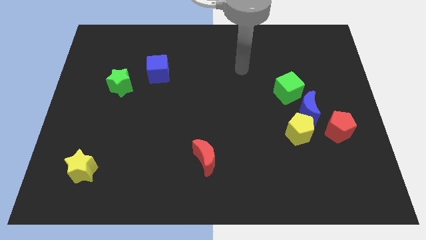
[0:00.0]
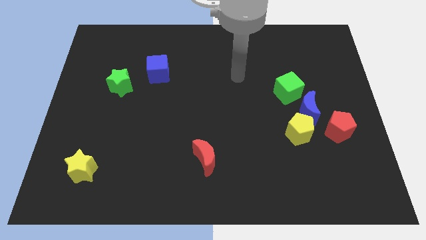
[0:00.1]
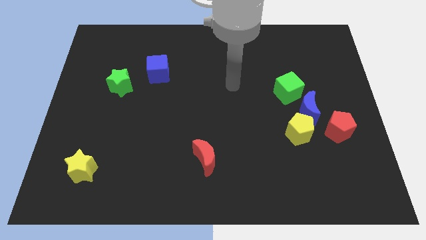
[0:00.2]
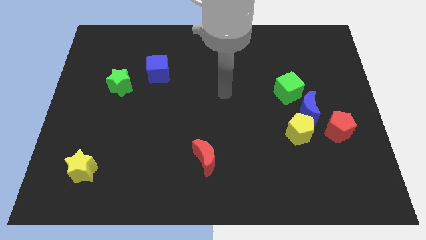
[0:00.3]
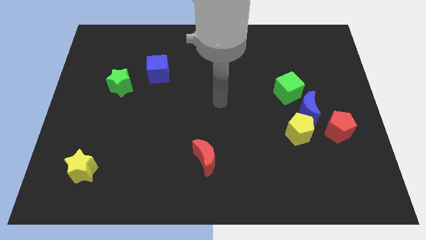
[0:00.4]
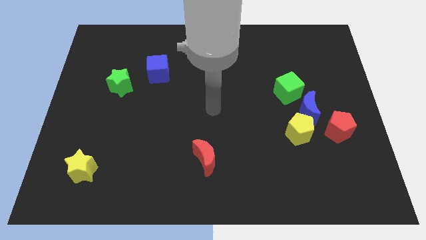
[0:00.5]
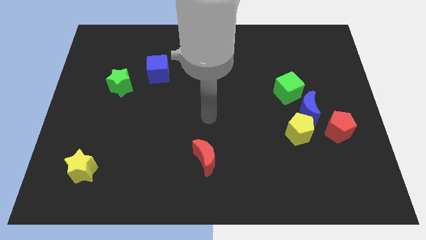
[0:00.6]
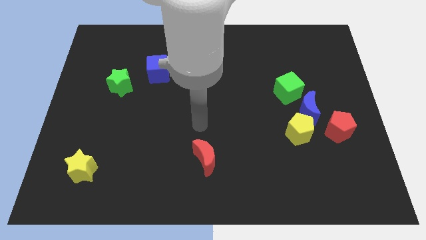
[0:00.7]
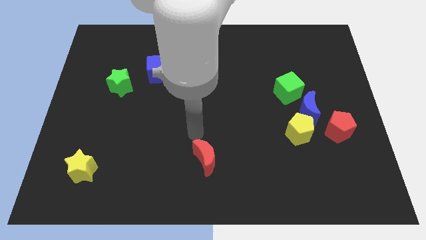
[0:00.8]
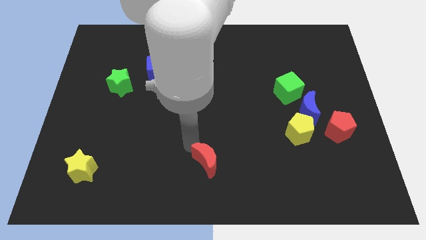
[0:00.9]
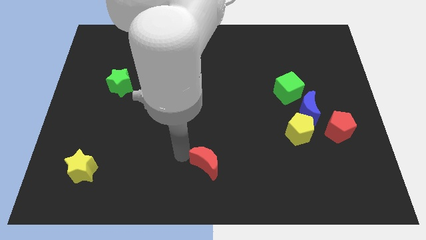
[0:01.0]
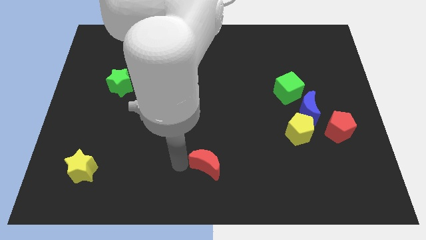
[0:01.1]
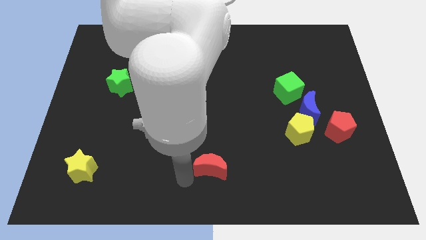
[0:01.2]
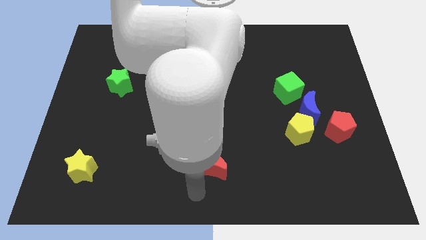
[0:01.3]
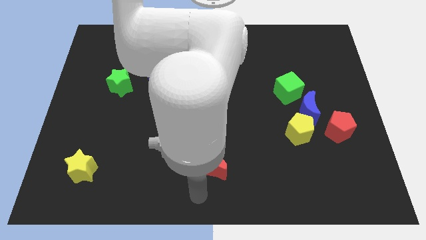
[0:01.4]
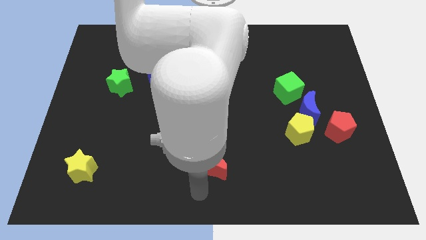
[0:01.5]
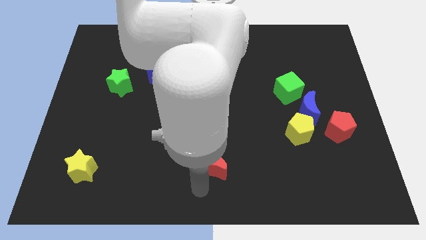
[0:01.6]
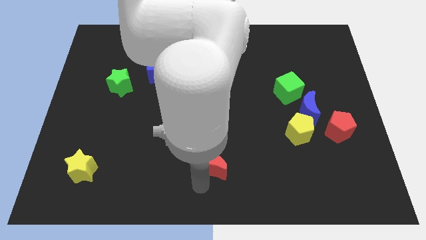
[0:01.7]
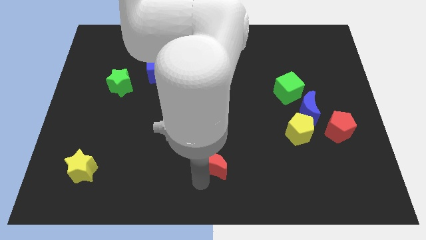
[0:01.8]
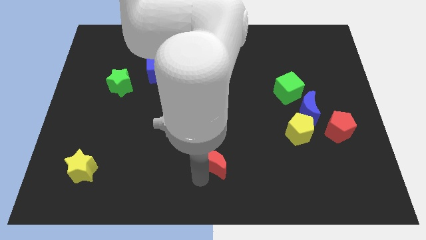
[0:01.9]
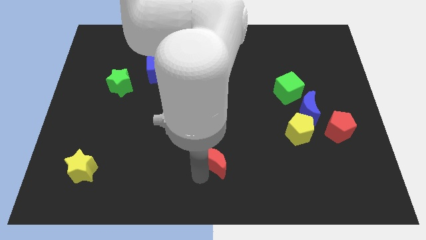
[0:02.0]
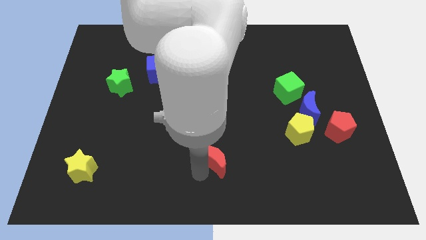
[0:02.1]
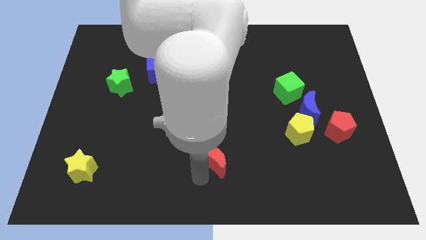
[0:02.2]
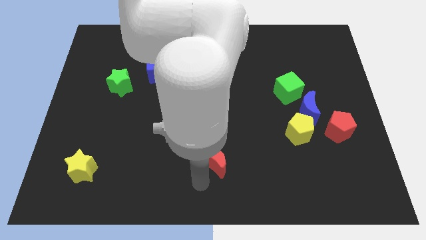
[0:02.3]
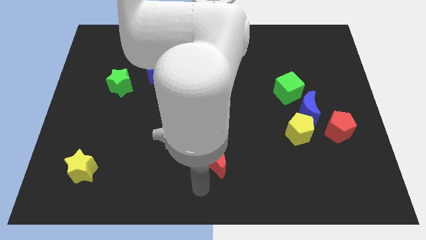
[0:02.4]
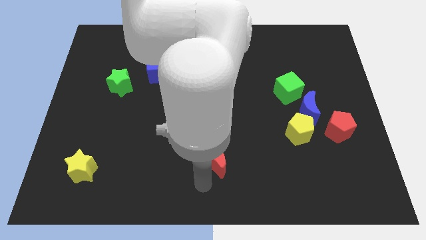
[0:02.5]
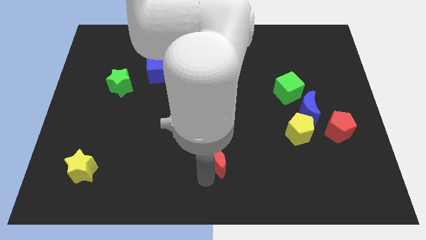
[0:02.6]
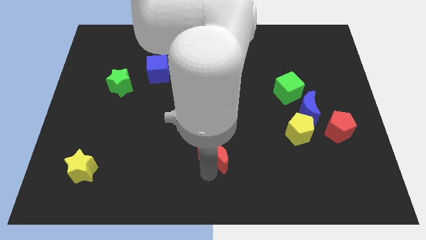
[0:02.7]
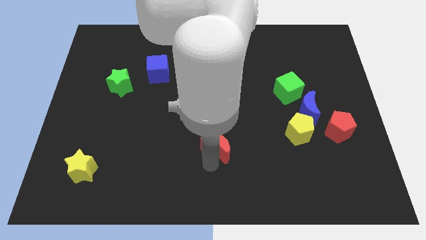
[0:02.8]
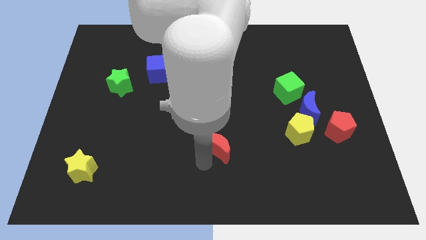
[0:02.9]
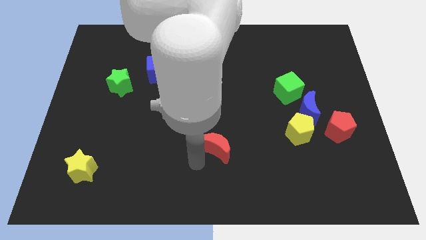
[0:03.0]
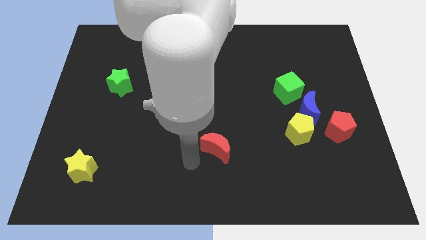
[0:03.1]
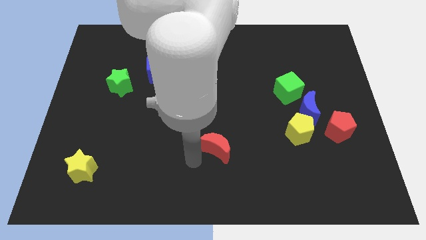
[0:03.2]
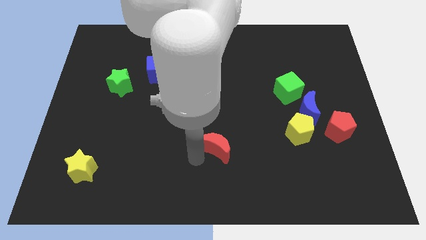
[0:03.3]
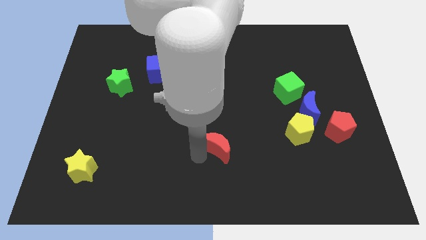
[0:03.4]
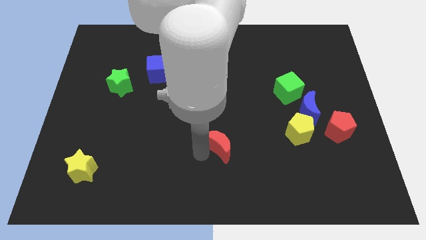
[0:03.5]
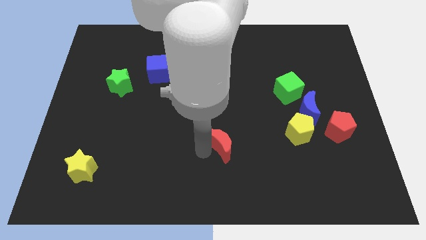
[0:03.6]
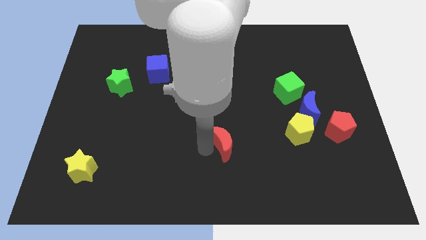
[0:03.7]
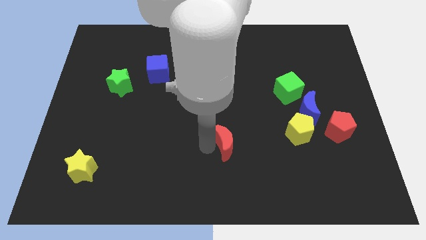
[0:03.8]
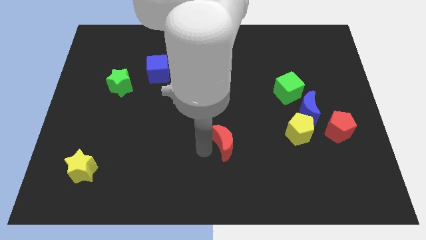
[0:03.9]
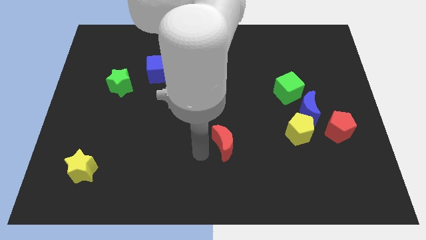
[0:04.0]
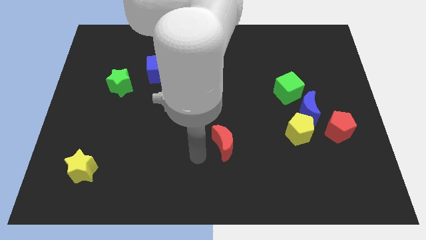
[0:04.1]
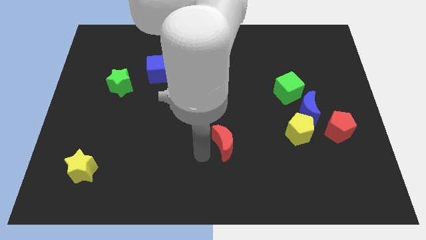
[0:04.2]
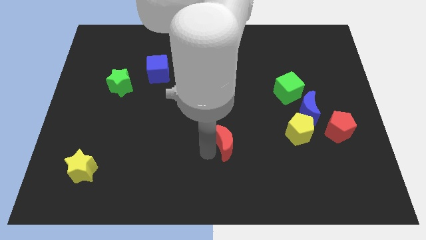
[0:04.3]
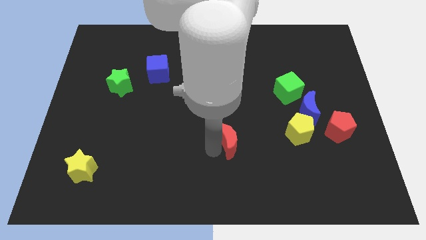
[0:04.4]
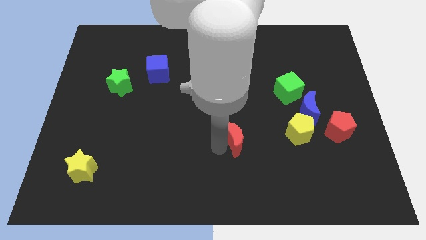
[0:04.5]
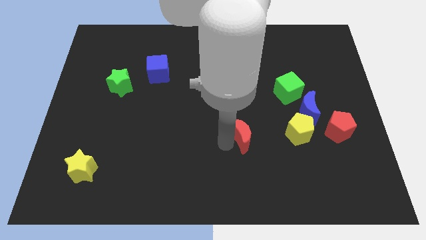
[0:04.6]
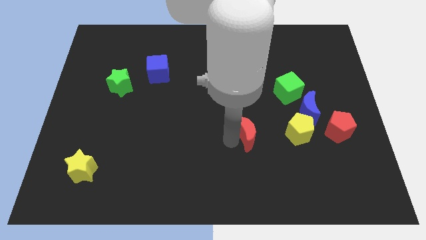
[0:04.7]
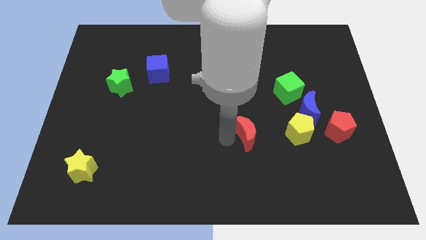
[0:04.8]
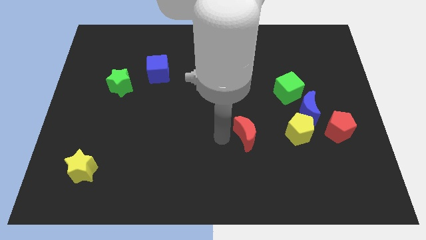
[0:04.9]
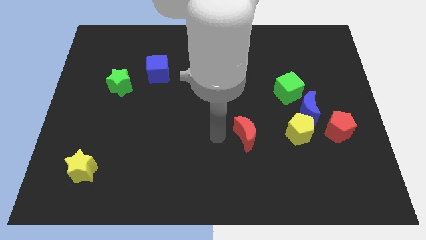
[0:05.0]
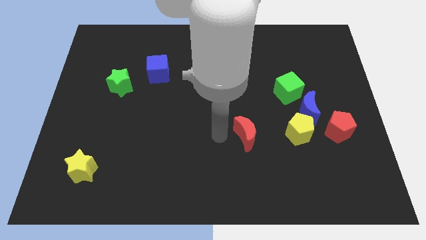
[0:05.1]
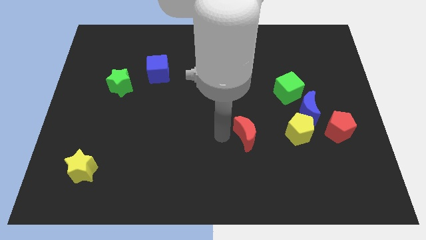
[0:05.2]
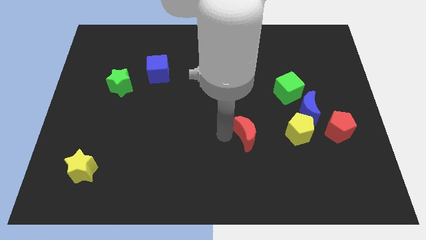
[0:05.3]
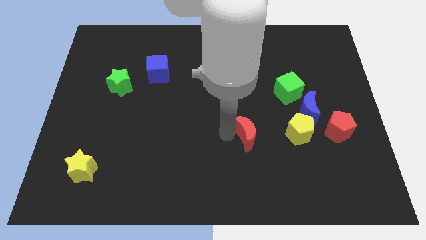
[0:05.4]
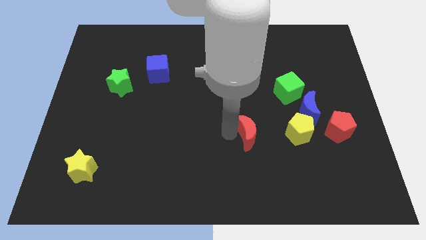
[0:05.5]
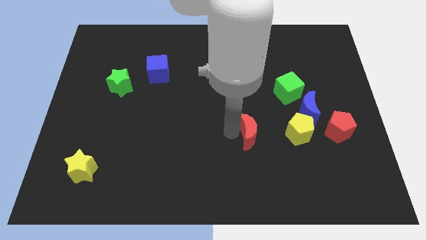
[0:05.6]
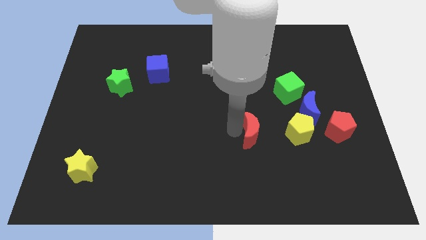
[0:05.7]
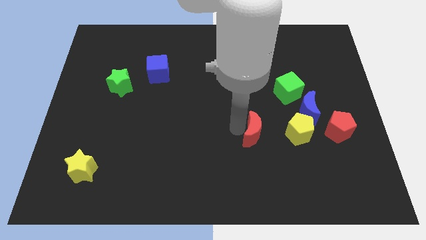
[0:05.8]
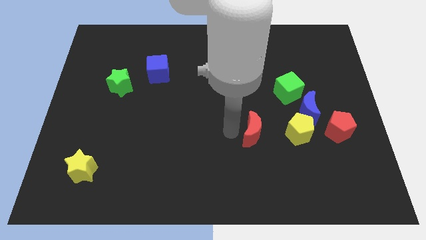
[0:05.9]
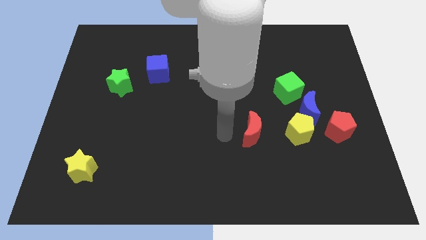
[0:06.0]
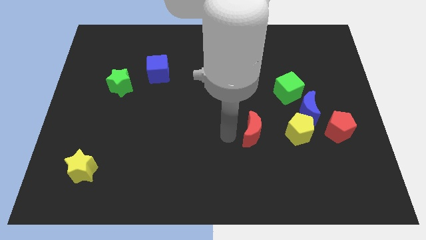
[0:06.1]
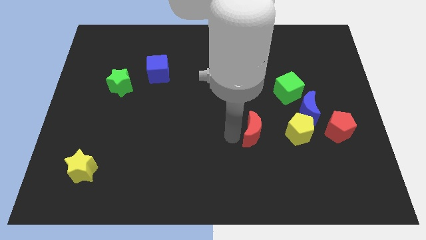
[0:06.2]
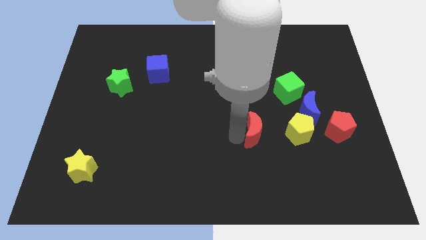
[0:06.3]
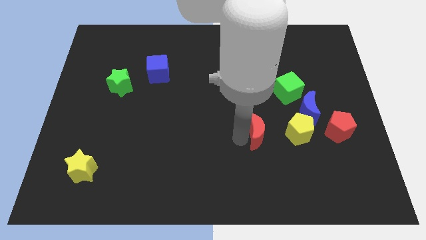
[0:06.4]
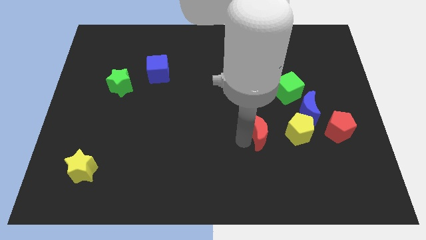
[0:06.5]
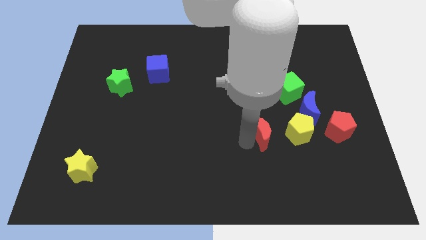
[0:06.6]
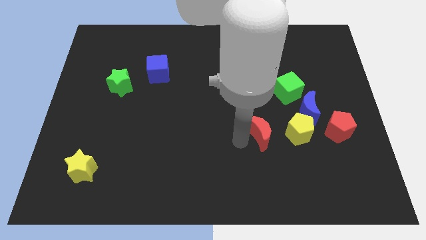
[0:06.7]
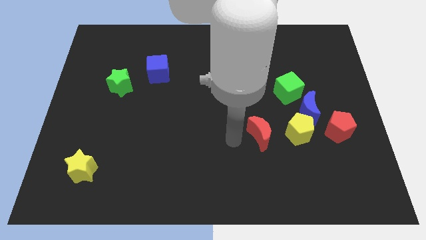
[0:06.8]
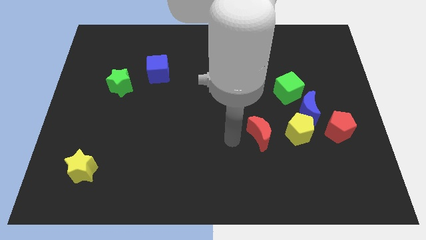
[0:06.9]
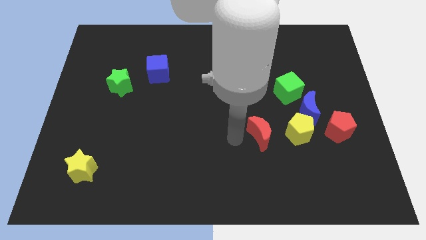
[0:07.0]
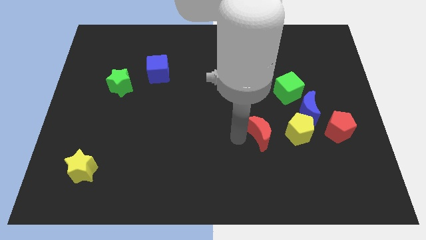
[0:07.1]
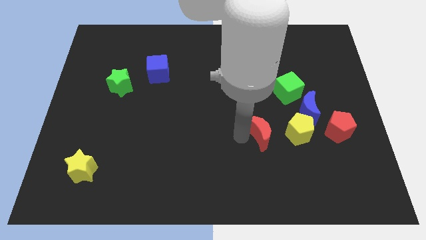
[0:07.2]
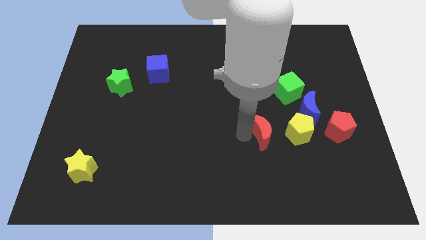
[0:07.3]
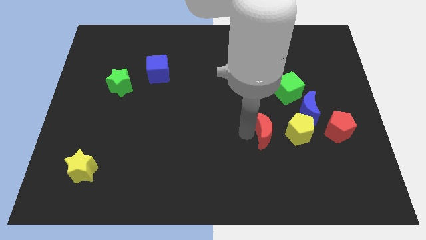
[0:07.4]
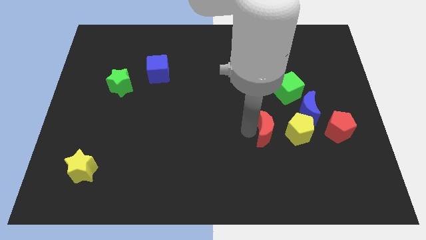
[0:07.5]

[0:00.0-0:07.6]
move the red moon to the left side of the red pentagon
